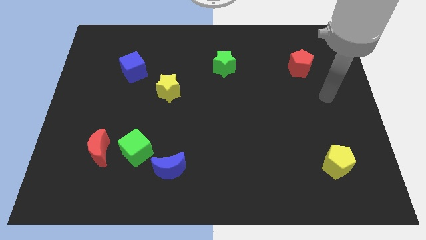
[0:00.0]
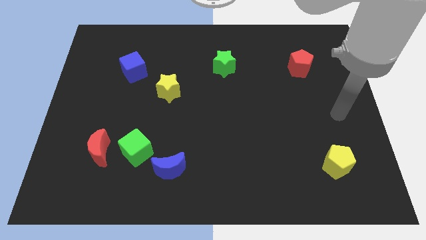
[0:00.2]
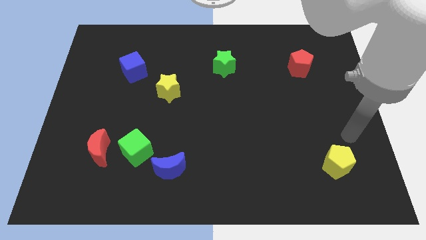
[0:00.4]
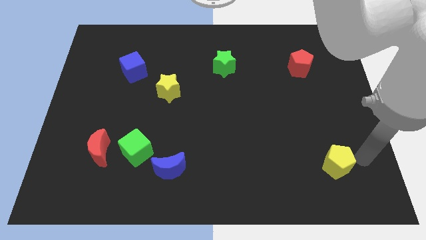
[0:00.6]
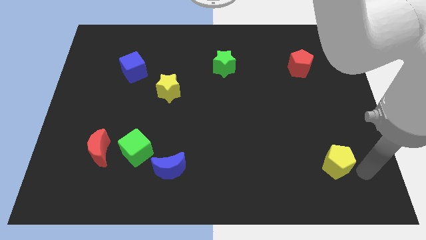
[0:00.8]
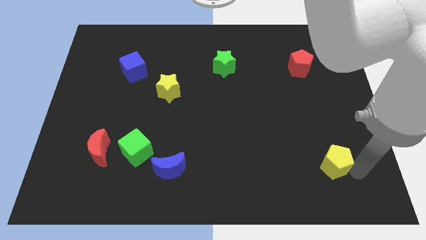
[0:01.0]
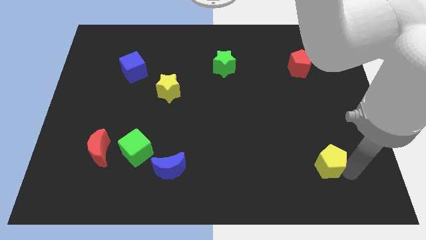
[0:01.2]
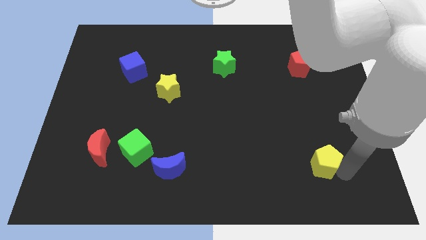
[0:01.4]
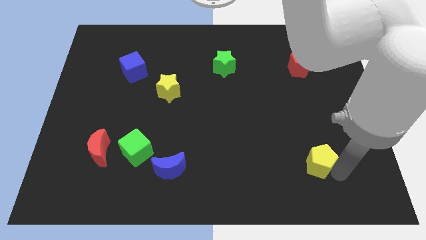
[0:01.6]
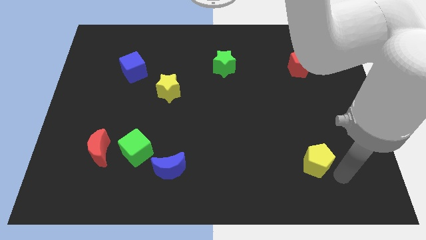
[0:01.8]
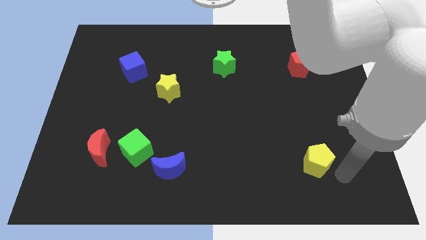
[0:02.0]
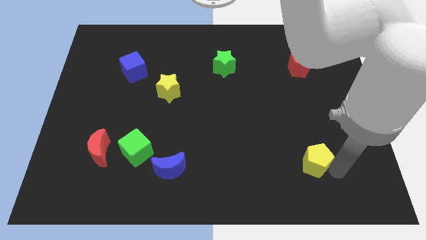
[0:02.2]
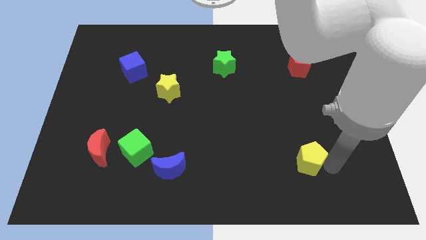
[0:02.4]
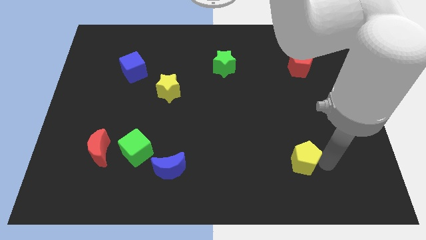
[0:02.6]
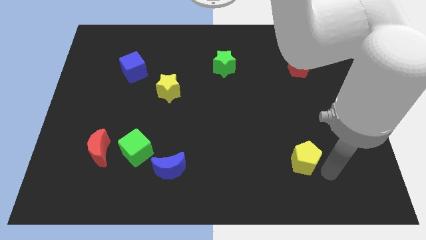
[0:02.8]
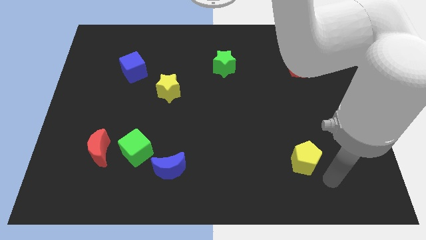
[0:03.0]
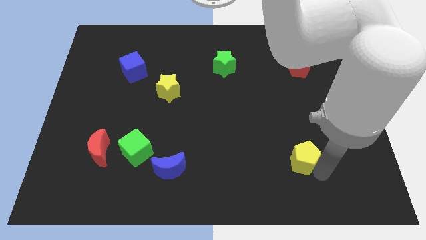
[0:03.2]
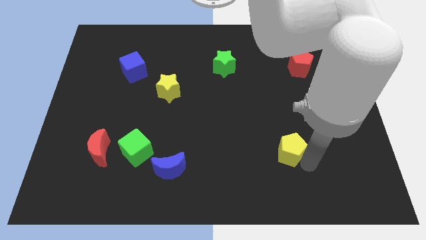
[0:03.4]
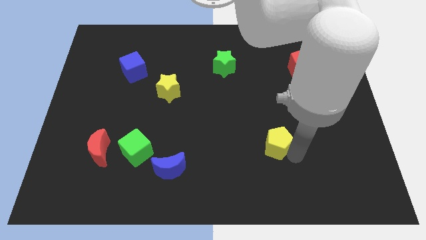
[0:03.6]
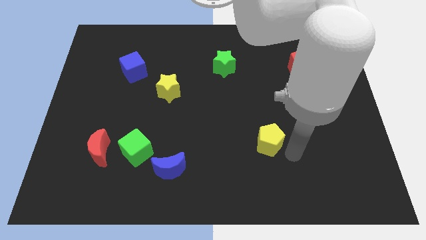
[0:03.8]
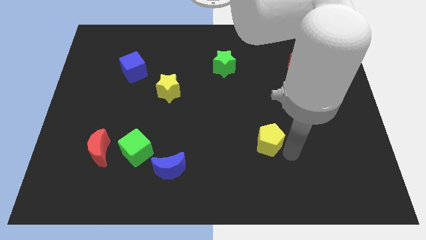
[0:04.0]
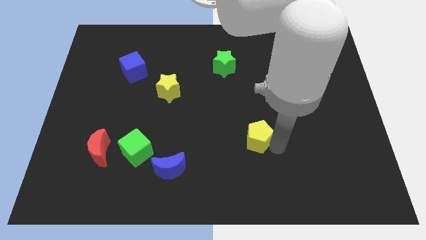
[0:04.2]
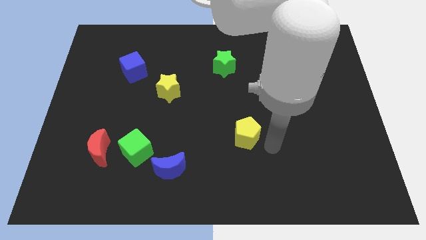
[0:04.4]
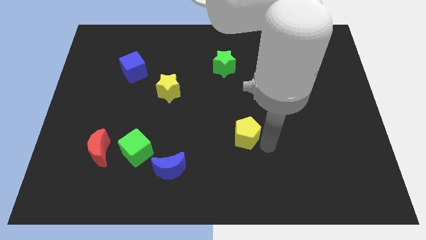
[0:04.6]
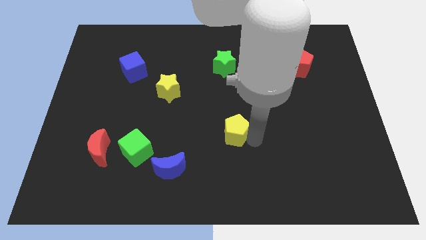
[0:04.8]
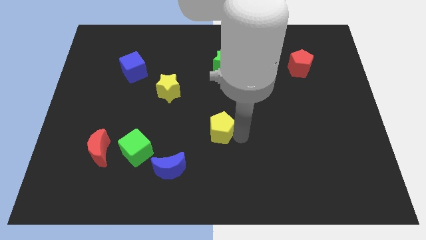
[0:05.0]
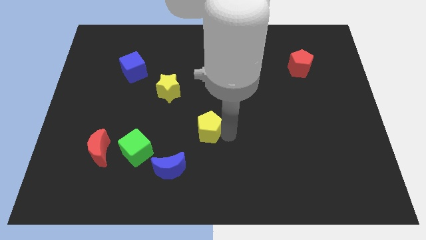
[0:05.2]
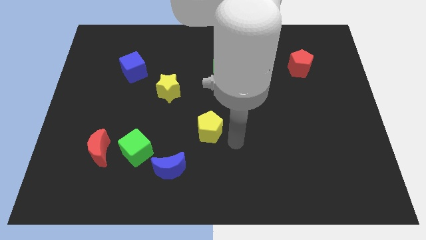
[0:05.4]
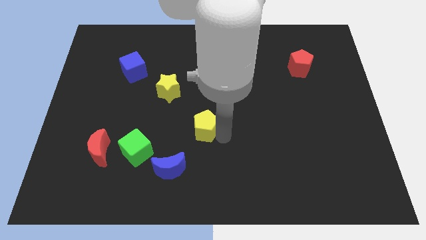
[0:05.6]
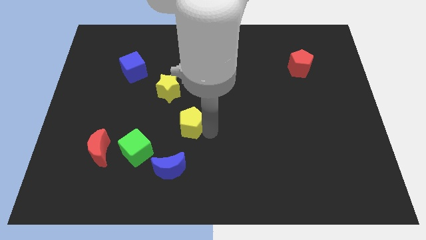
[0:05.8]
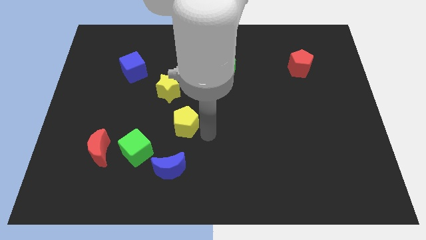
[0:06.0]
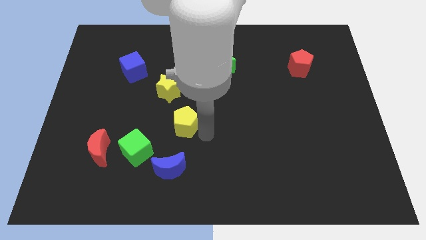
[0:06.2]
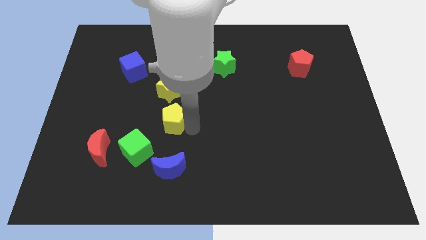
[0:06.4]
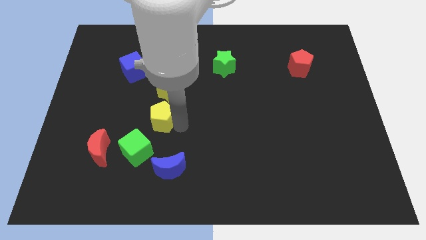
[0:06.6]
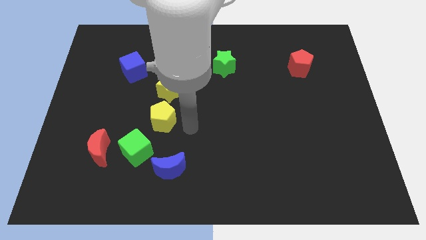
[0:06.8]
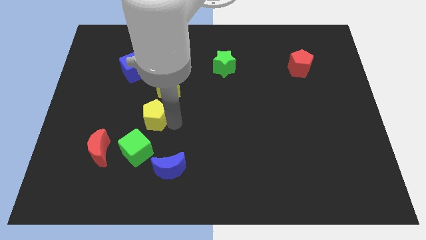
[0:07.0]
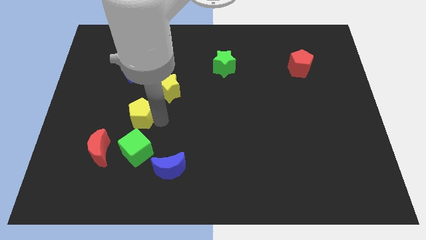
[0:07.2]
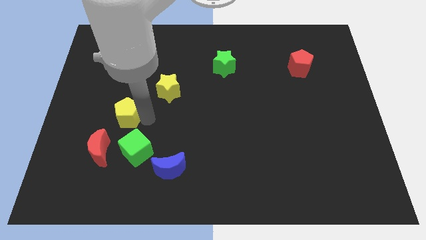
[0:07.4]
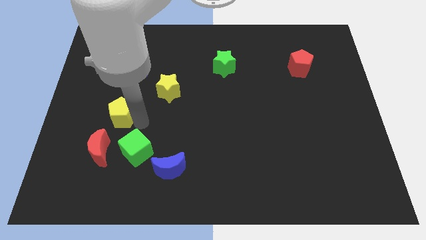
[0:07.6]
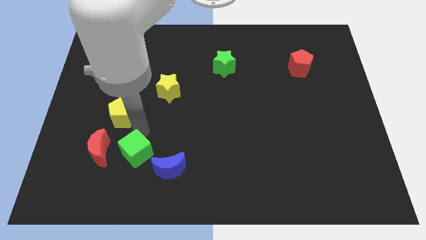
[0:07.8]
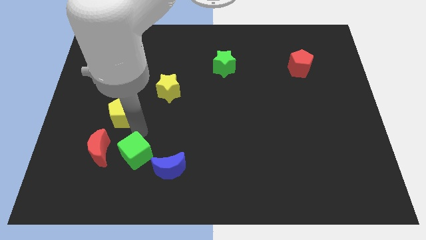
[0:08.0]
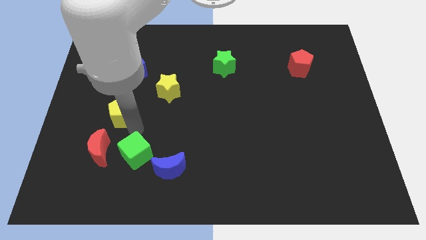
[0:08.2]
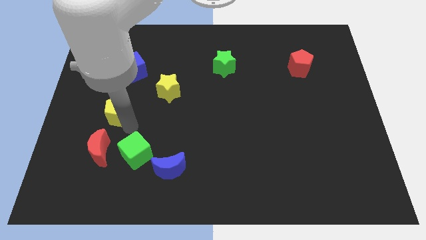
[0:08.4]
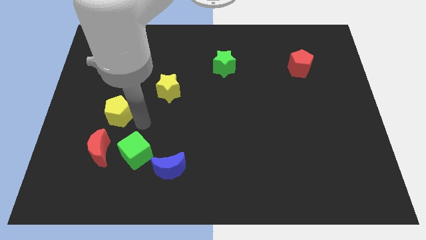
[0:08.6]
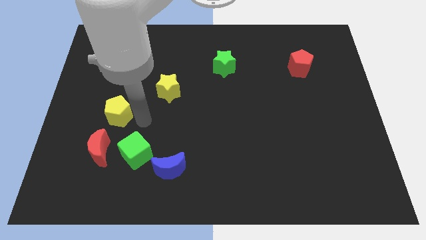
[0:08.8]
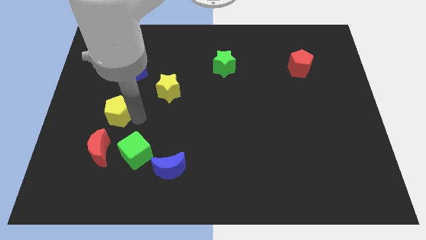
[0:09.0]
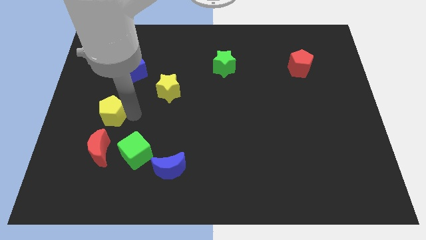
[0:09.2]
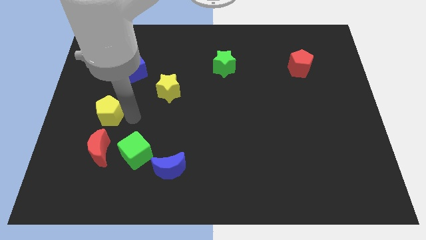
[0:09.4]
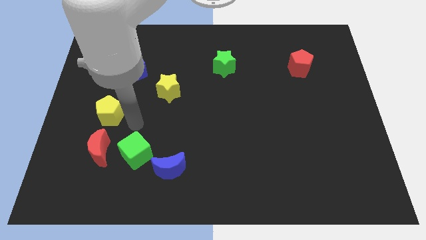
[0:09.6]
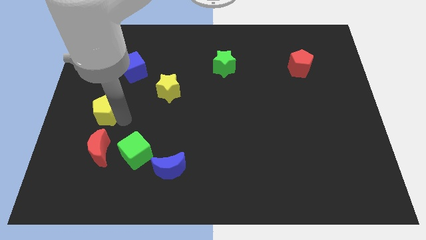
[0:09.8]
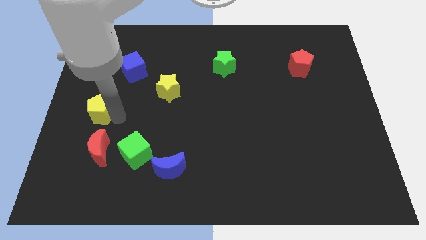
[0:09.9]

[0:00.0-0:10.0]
put the yellow pentagon to the left side

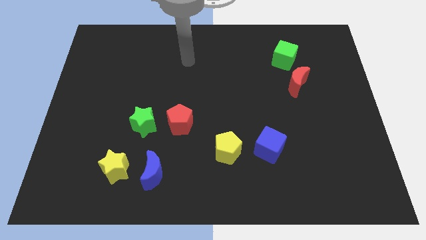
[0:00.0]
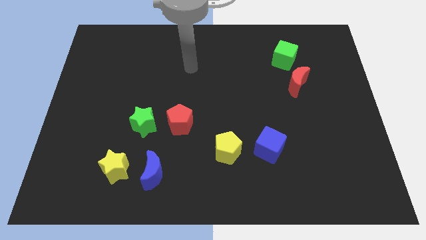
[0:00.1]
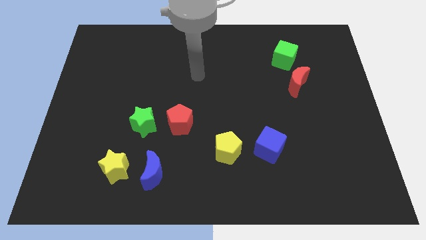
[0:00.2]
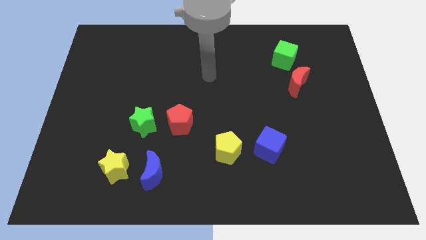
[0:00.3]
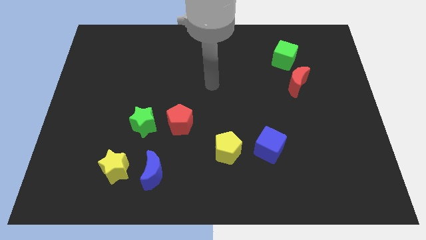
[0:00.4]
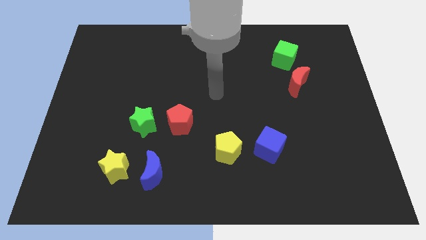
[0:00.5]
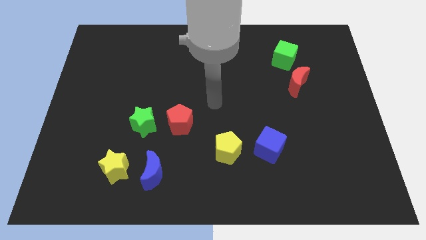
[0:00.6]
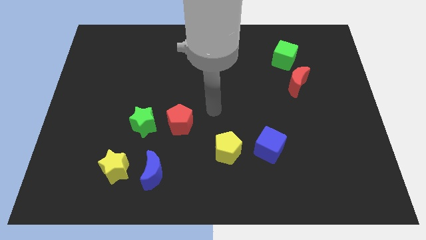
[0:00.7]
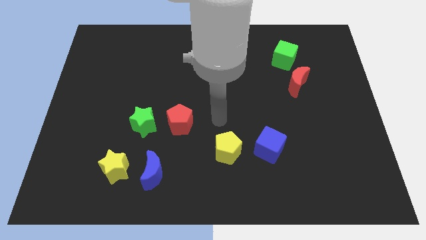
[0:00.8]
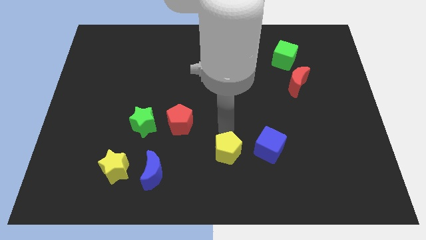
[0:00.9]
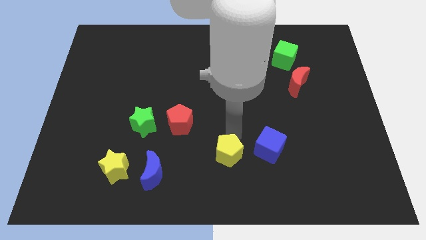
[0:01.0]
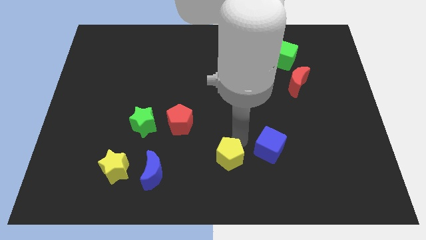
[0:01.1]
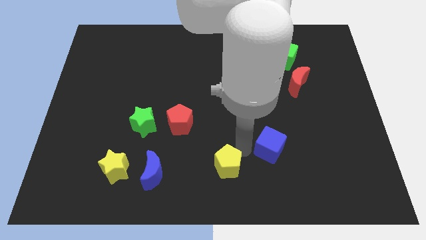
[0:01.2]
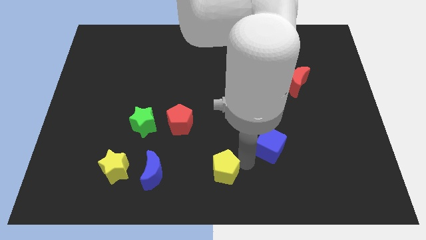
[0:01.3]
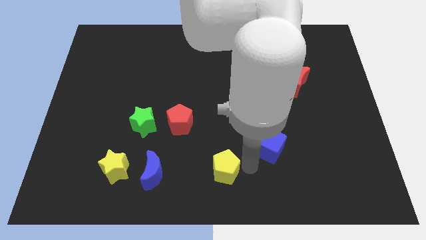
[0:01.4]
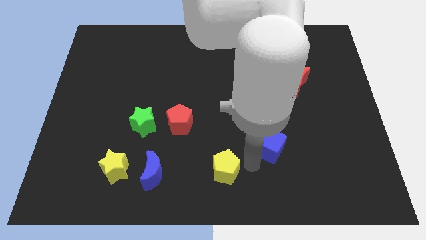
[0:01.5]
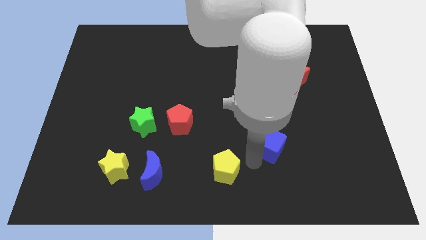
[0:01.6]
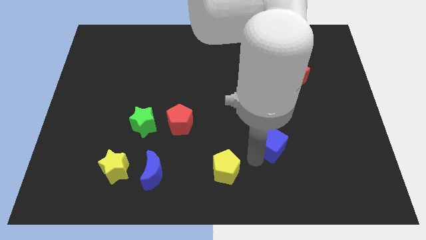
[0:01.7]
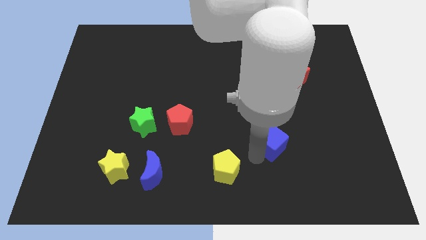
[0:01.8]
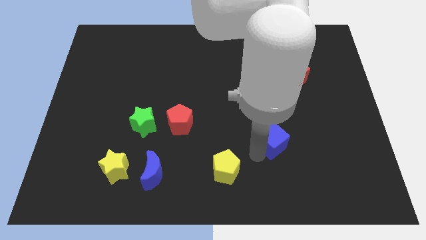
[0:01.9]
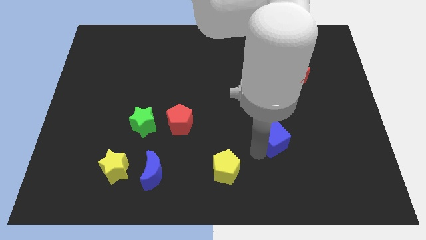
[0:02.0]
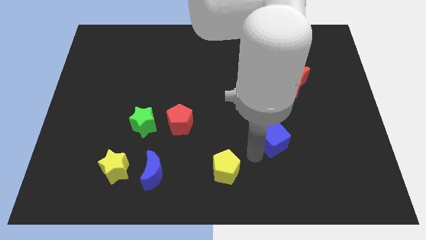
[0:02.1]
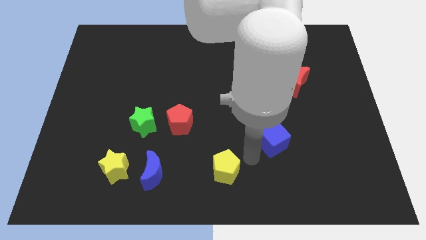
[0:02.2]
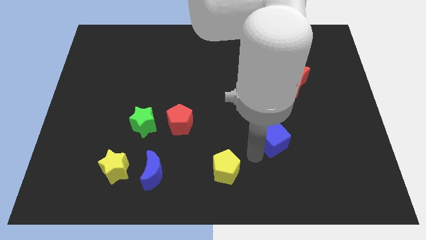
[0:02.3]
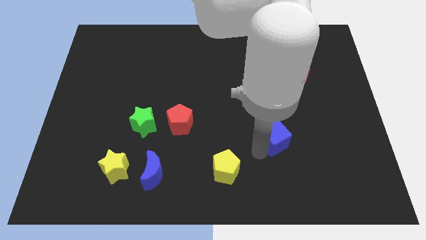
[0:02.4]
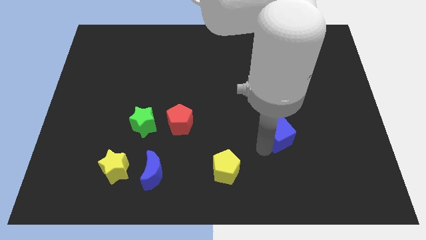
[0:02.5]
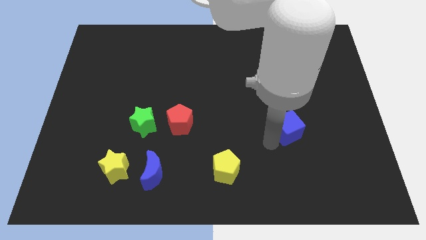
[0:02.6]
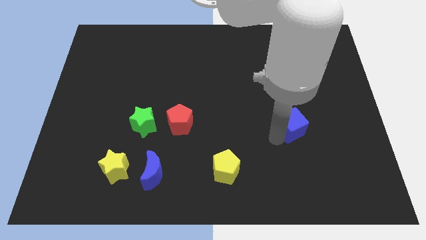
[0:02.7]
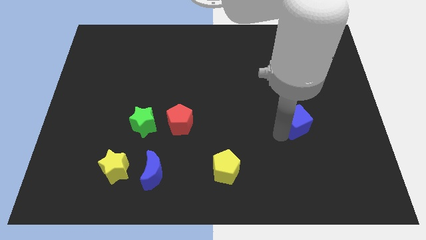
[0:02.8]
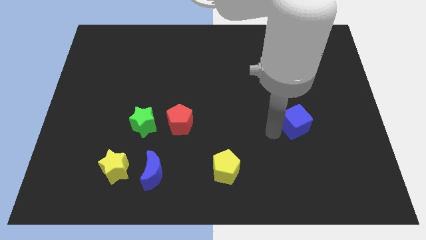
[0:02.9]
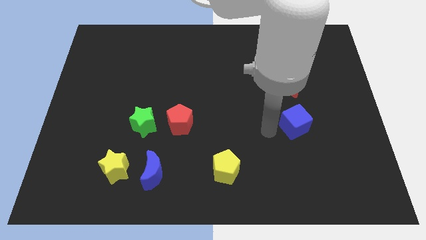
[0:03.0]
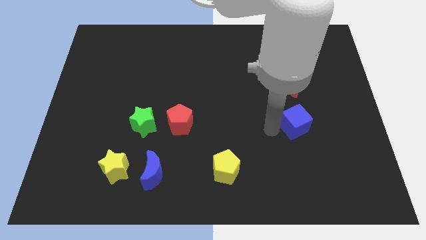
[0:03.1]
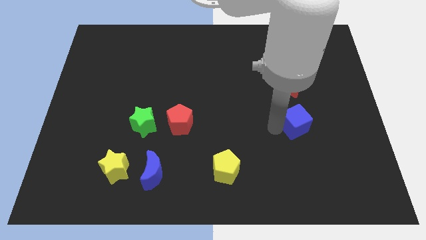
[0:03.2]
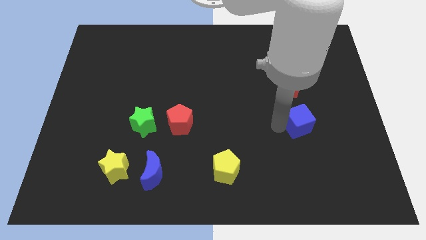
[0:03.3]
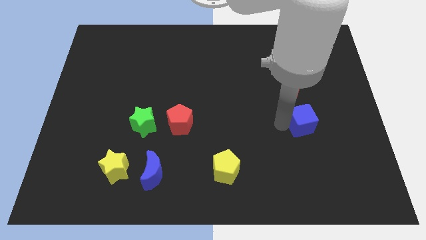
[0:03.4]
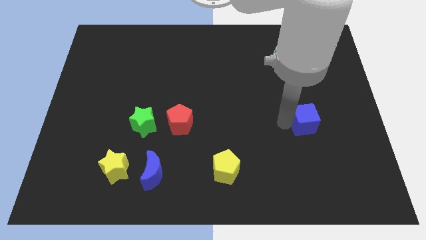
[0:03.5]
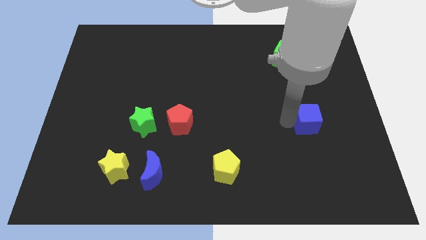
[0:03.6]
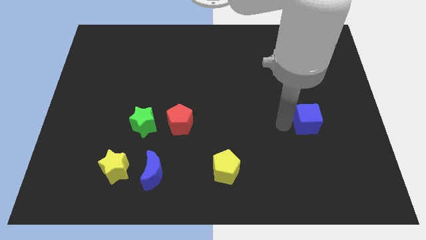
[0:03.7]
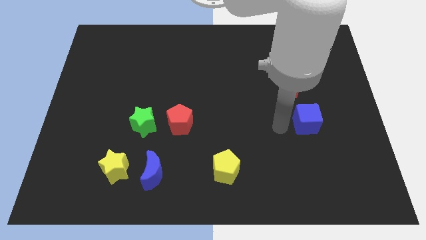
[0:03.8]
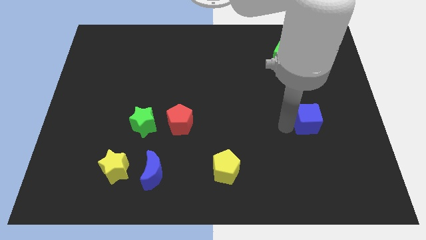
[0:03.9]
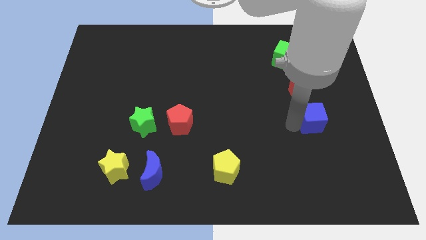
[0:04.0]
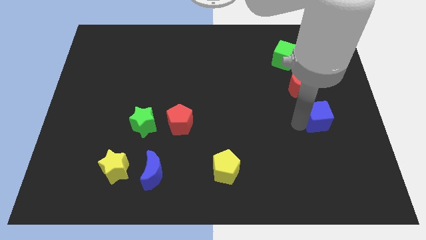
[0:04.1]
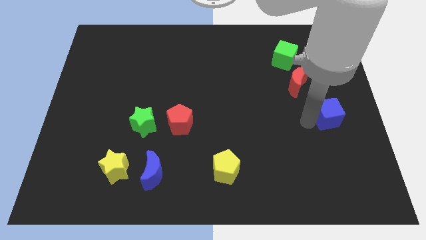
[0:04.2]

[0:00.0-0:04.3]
move the blue cube to the right side
